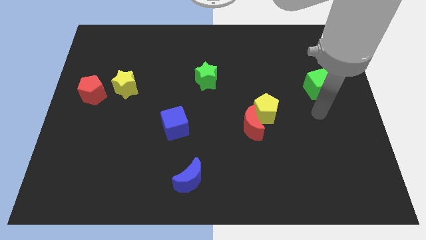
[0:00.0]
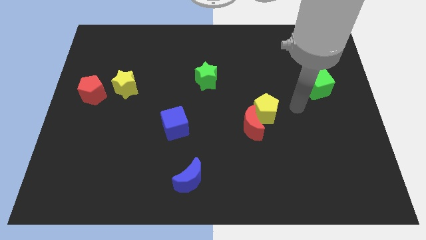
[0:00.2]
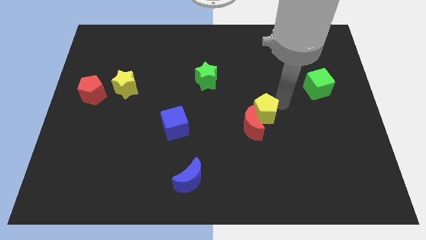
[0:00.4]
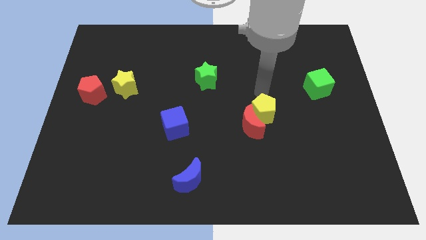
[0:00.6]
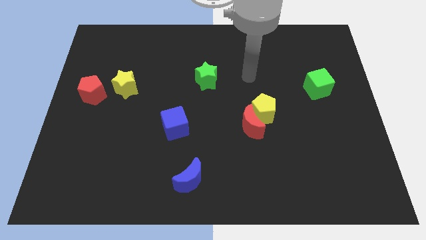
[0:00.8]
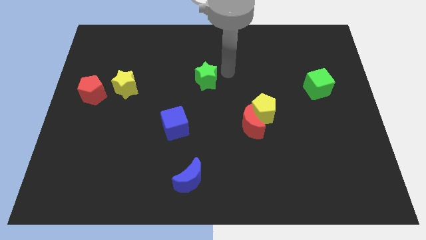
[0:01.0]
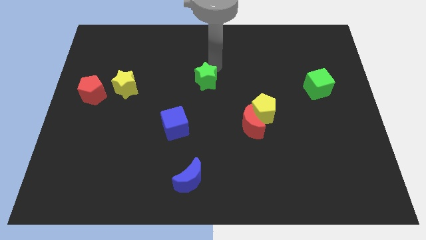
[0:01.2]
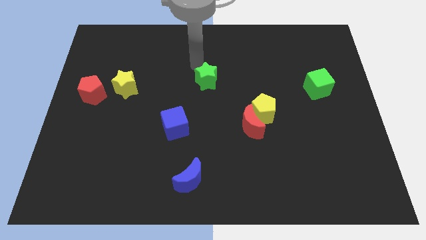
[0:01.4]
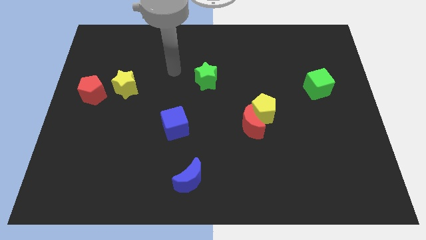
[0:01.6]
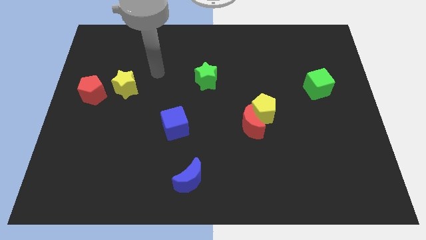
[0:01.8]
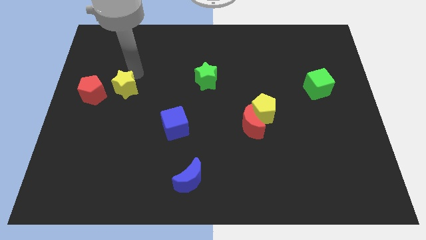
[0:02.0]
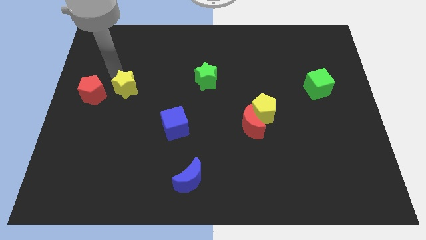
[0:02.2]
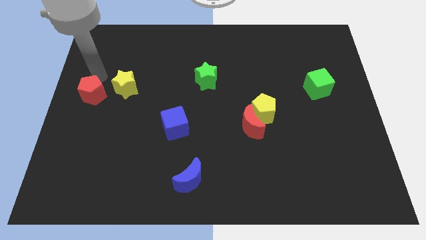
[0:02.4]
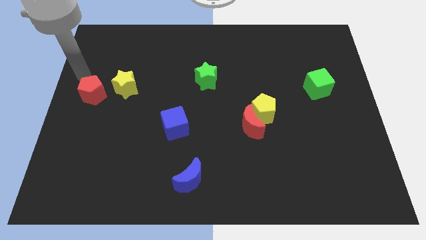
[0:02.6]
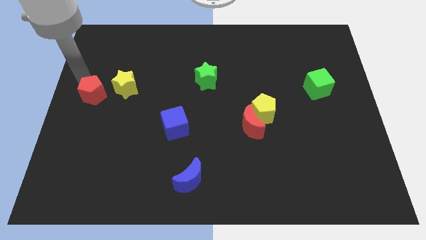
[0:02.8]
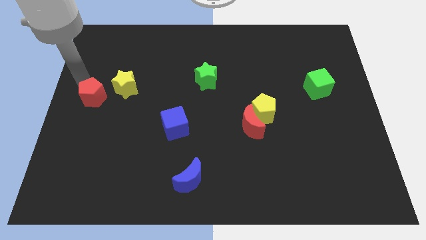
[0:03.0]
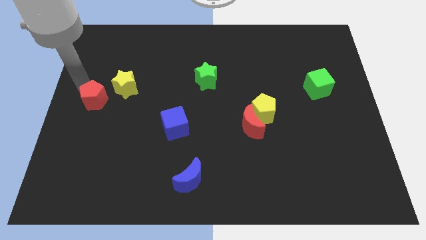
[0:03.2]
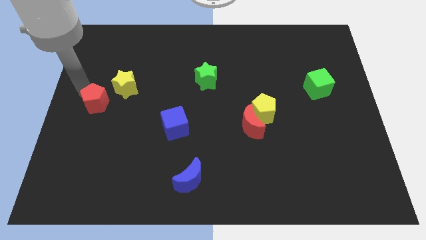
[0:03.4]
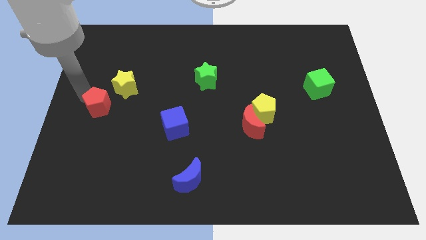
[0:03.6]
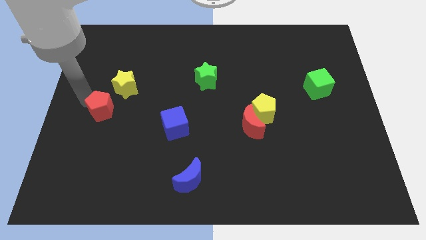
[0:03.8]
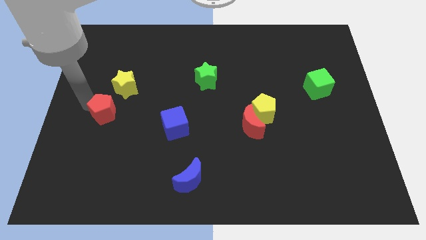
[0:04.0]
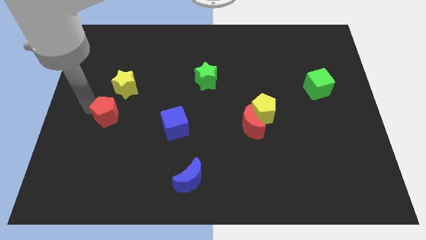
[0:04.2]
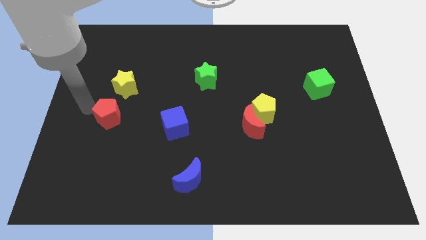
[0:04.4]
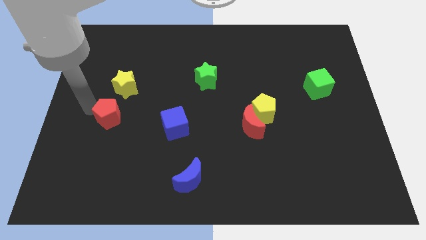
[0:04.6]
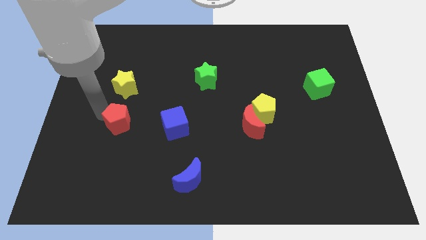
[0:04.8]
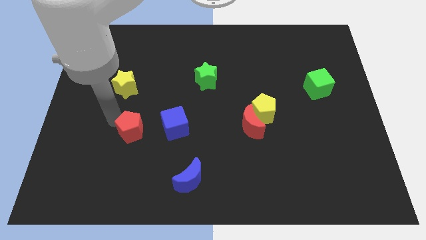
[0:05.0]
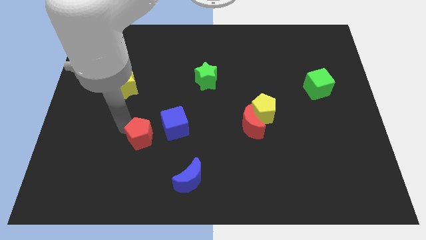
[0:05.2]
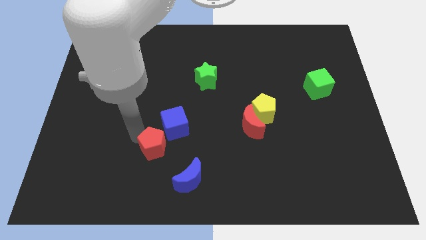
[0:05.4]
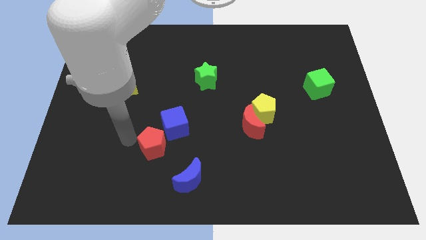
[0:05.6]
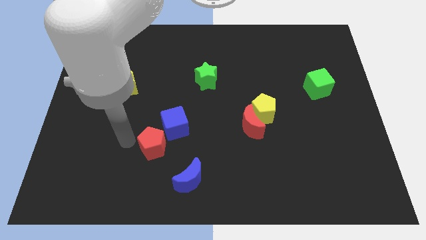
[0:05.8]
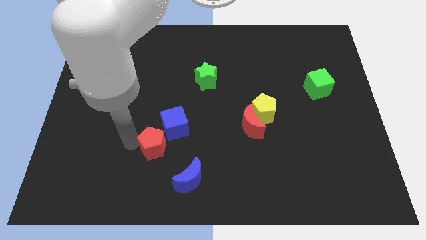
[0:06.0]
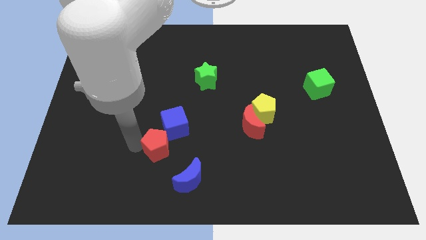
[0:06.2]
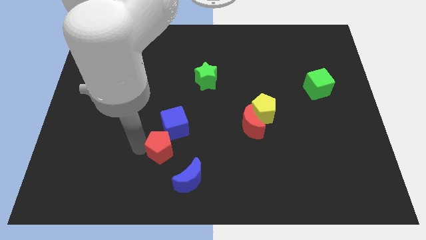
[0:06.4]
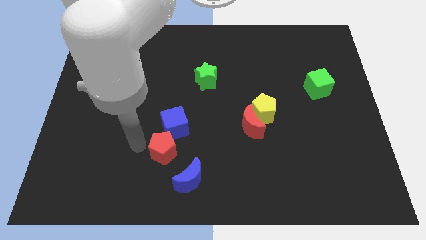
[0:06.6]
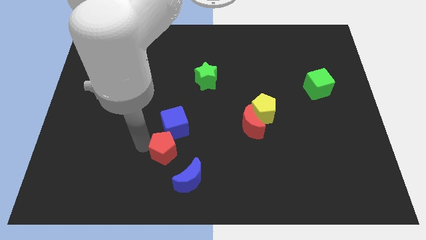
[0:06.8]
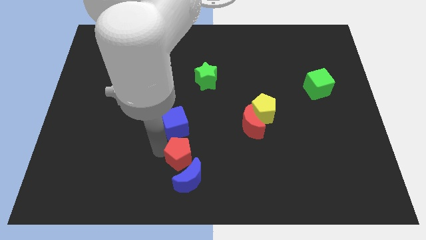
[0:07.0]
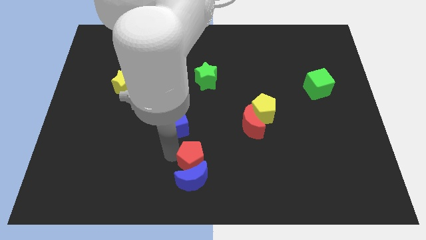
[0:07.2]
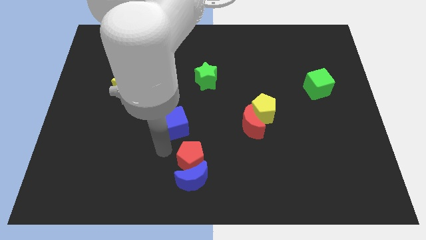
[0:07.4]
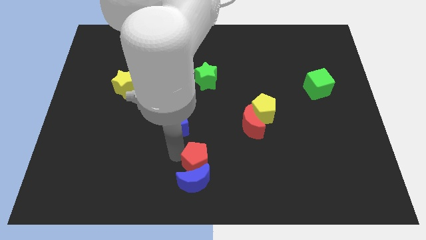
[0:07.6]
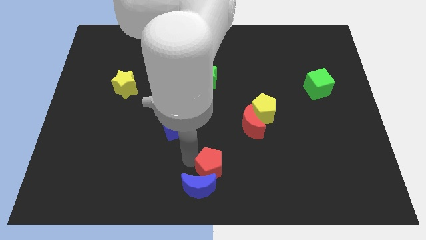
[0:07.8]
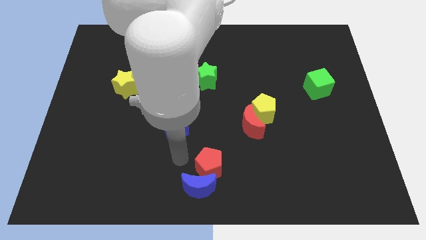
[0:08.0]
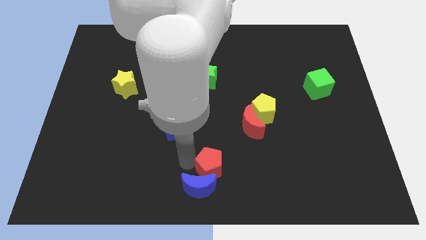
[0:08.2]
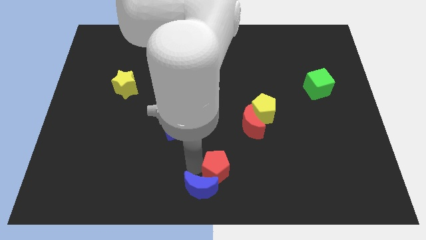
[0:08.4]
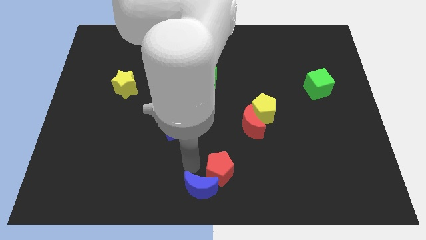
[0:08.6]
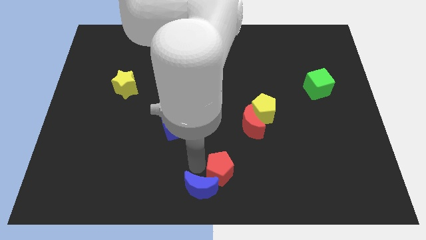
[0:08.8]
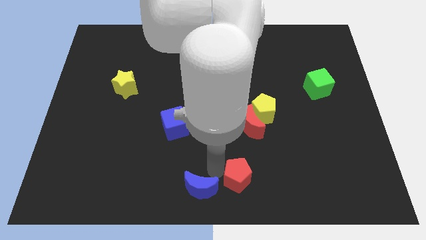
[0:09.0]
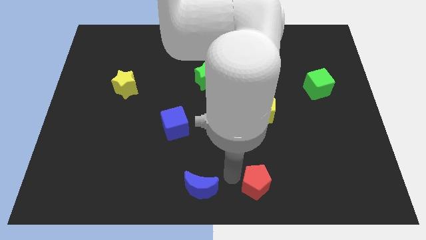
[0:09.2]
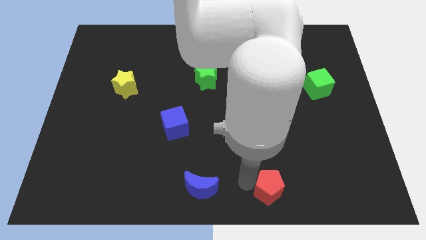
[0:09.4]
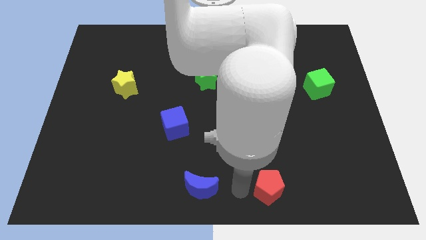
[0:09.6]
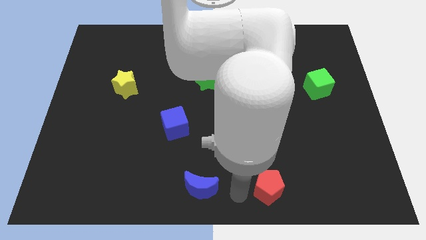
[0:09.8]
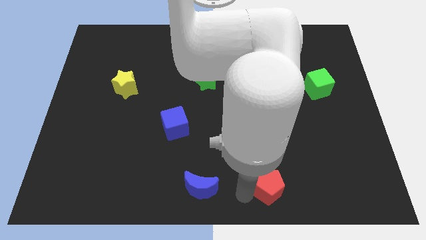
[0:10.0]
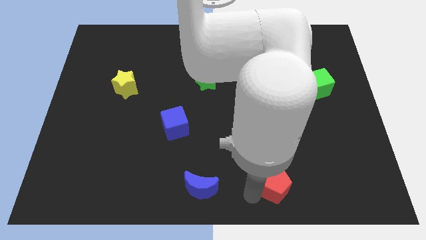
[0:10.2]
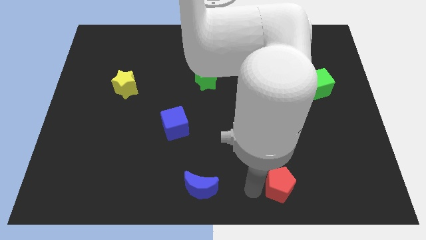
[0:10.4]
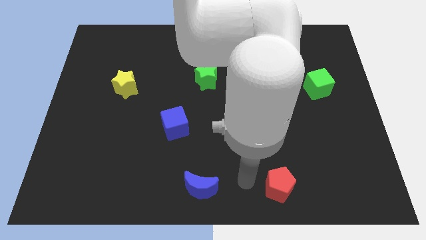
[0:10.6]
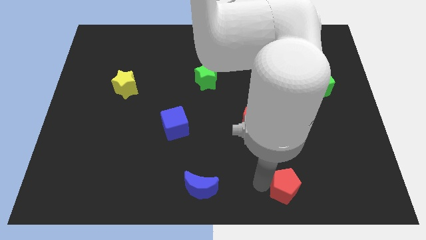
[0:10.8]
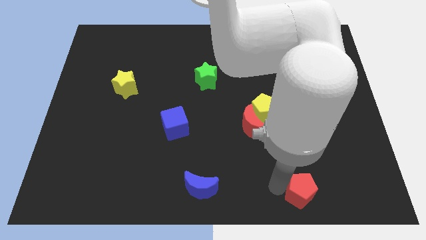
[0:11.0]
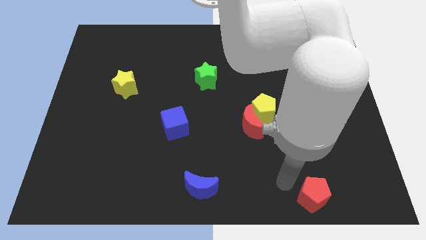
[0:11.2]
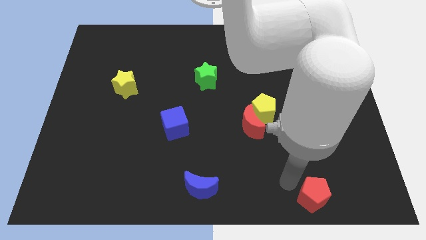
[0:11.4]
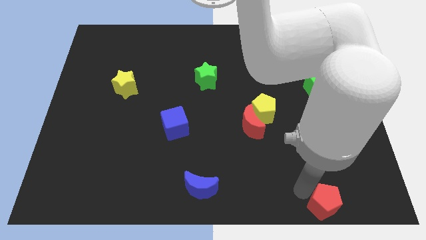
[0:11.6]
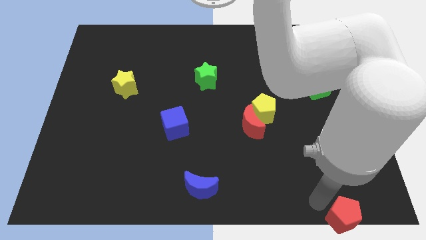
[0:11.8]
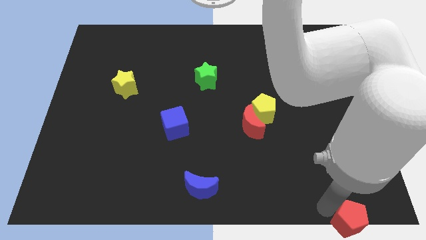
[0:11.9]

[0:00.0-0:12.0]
push the red pentagon to the lower right corner
